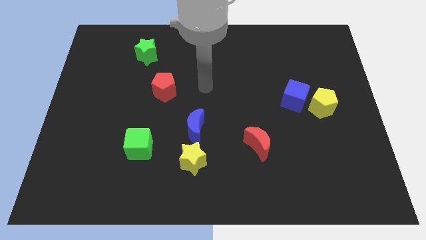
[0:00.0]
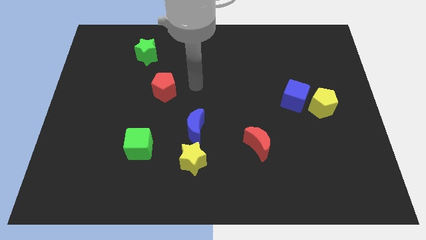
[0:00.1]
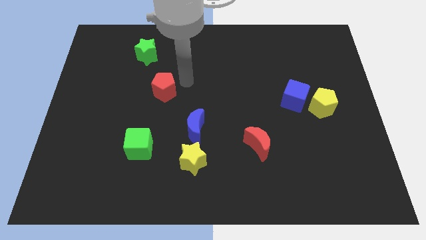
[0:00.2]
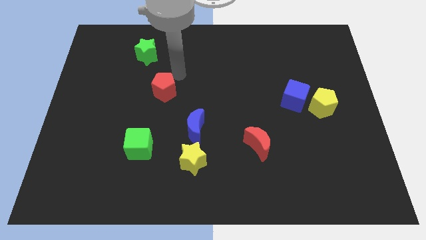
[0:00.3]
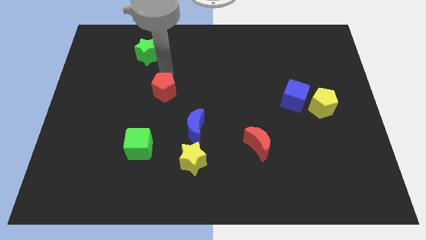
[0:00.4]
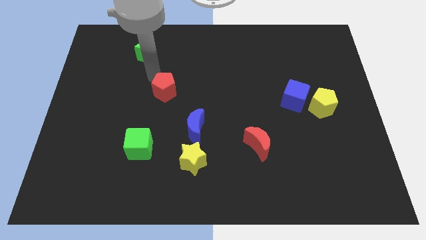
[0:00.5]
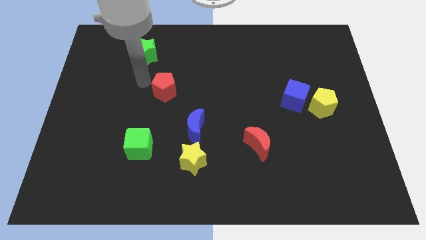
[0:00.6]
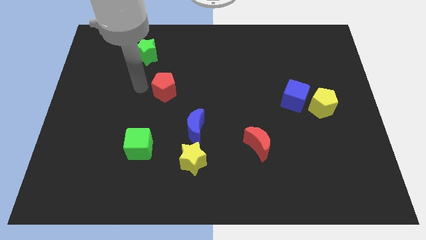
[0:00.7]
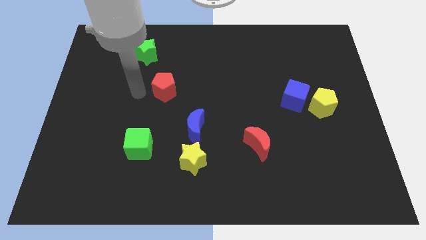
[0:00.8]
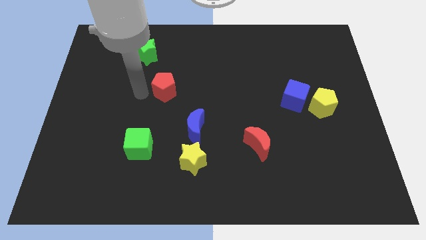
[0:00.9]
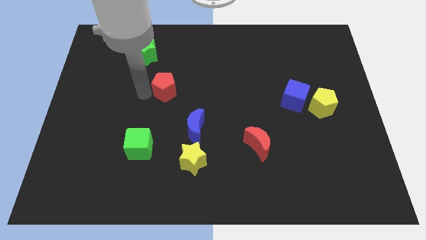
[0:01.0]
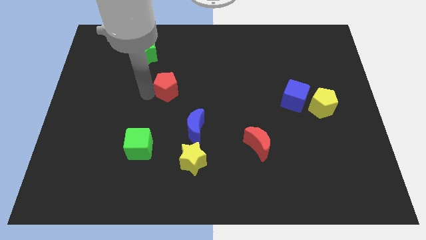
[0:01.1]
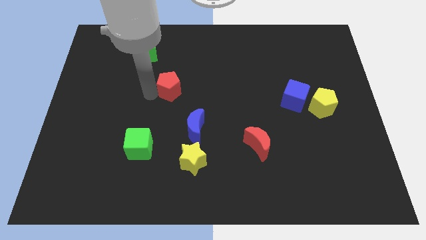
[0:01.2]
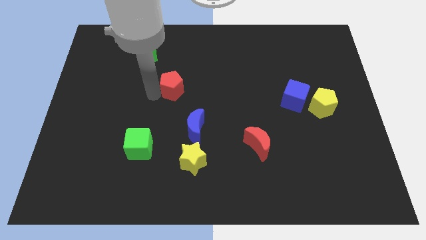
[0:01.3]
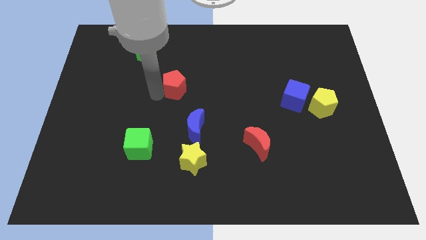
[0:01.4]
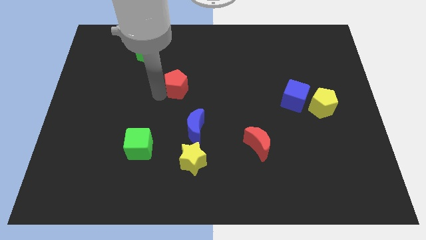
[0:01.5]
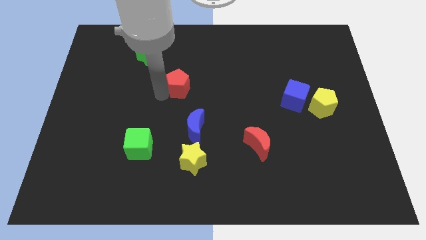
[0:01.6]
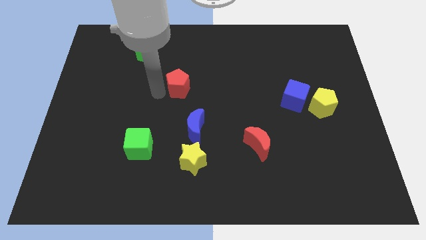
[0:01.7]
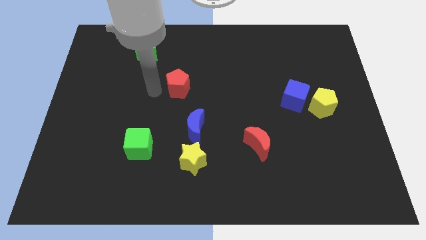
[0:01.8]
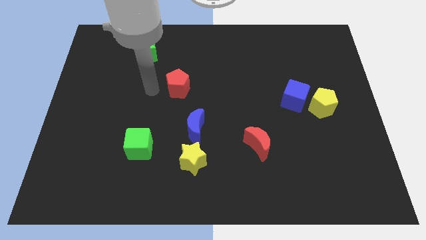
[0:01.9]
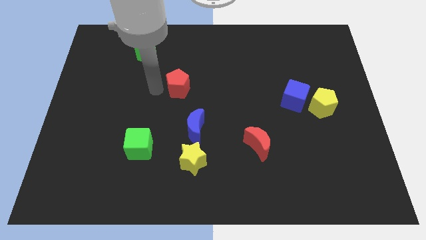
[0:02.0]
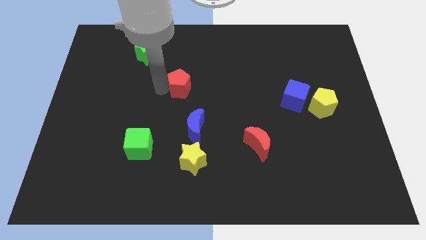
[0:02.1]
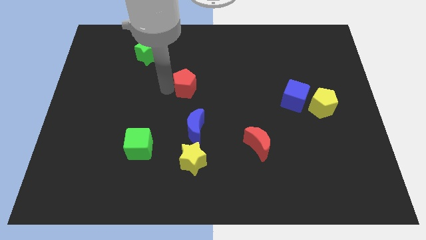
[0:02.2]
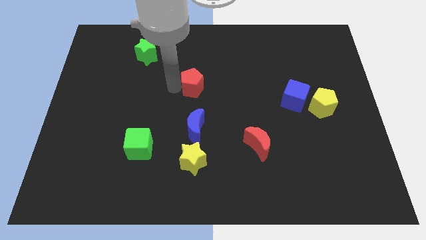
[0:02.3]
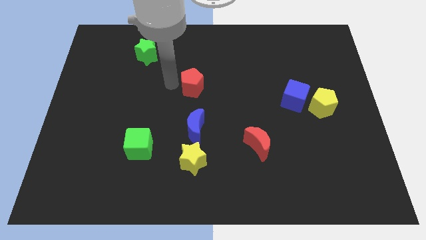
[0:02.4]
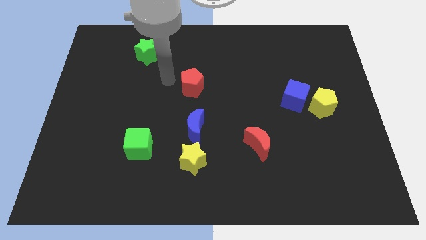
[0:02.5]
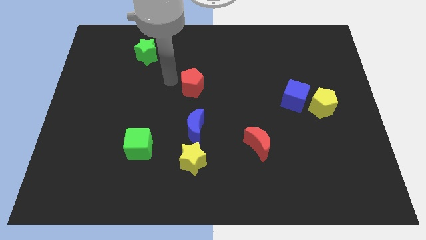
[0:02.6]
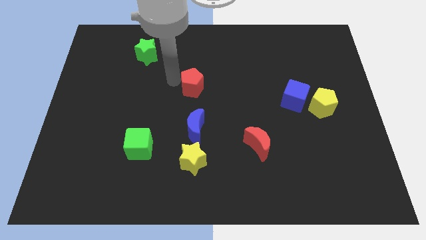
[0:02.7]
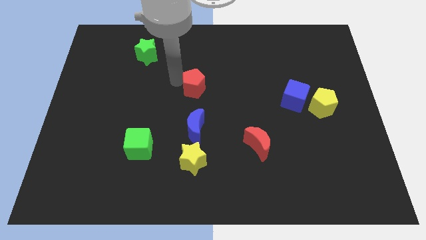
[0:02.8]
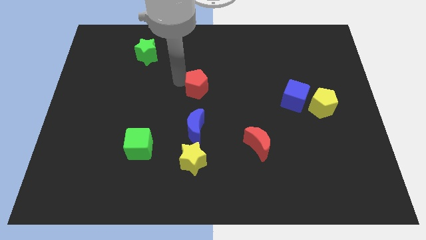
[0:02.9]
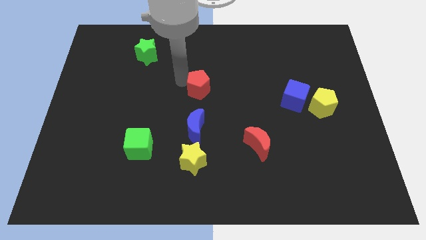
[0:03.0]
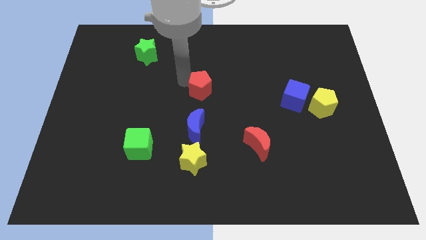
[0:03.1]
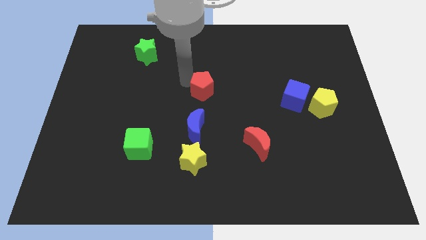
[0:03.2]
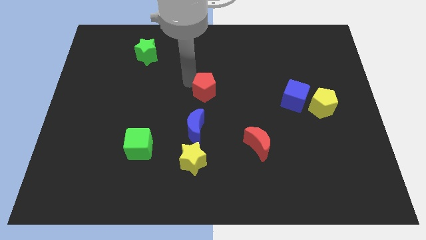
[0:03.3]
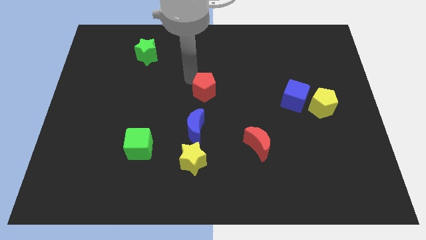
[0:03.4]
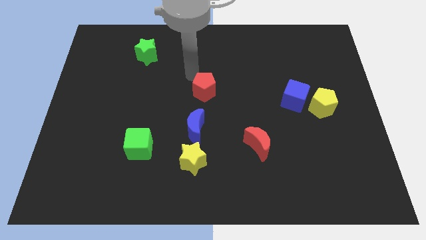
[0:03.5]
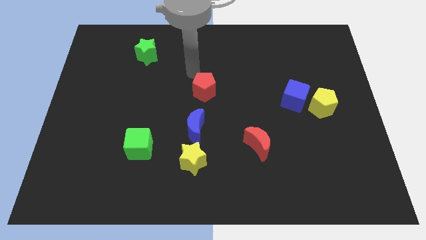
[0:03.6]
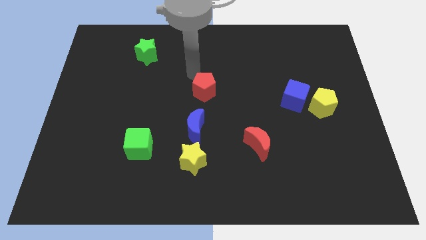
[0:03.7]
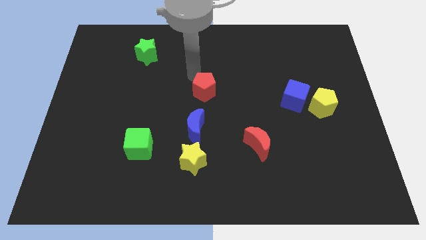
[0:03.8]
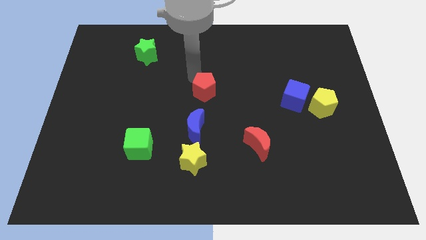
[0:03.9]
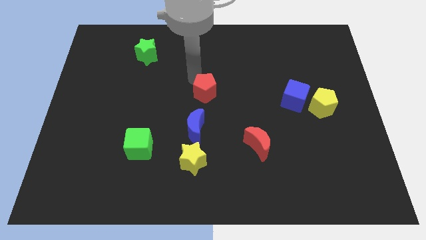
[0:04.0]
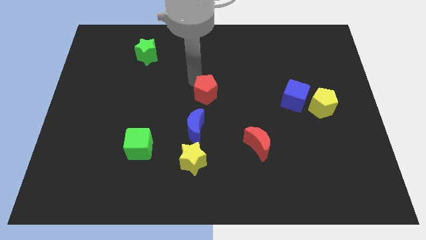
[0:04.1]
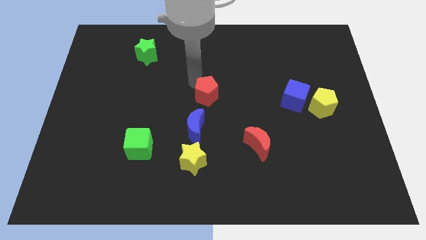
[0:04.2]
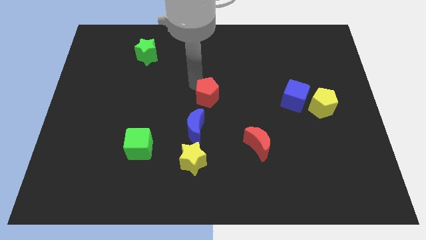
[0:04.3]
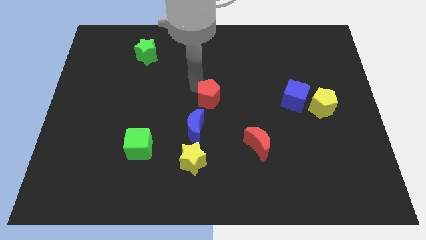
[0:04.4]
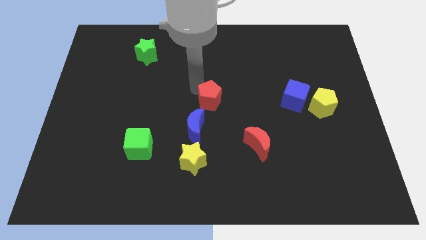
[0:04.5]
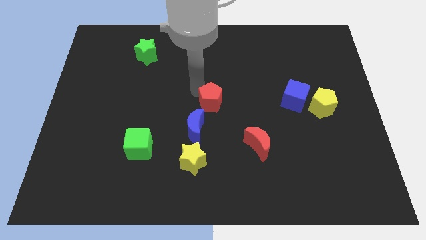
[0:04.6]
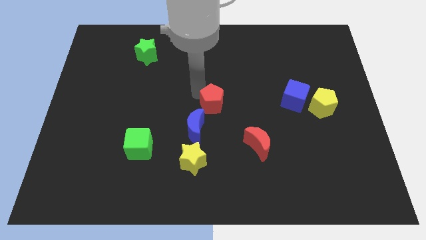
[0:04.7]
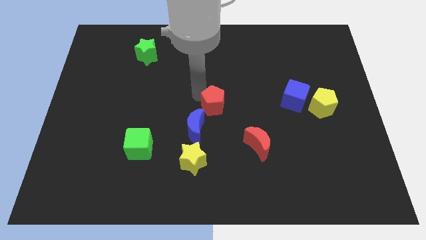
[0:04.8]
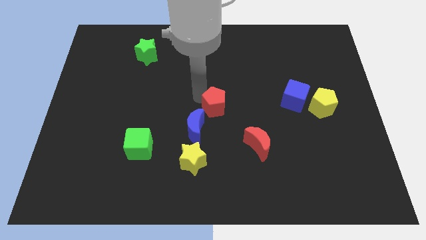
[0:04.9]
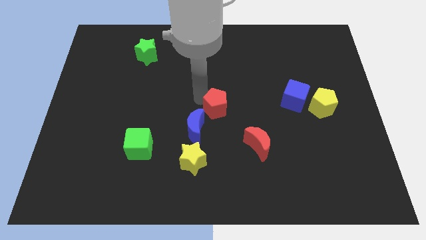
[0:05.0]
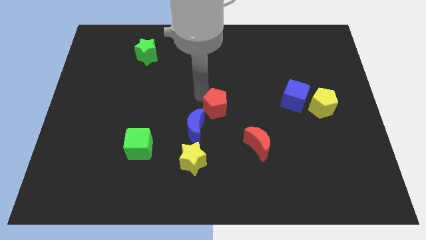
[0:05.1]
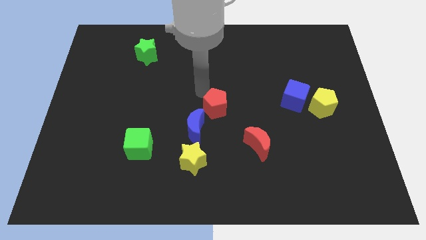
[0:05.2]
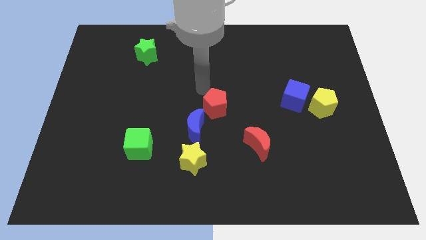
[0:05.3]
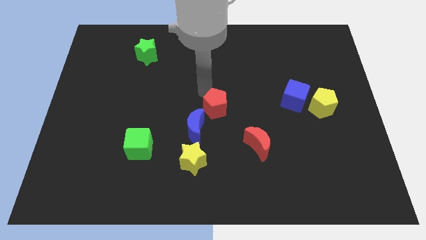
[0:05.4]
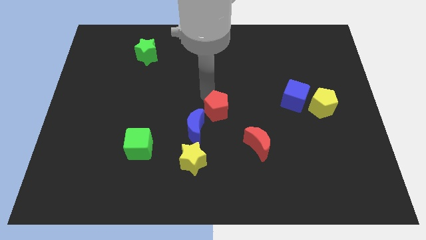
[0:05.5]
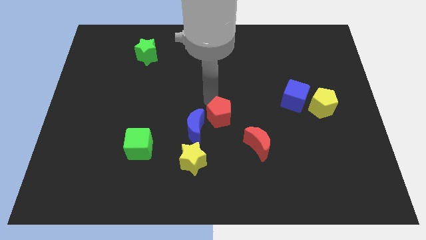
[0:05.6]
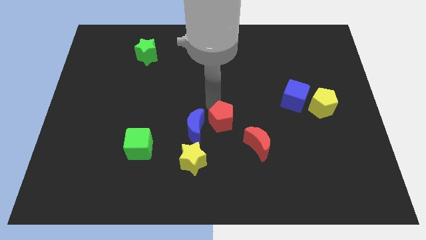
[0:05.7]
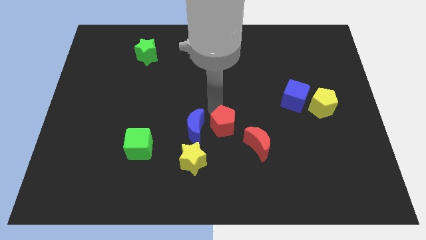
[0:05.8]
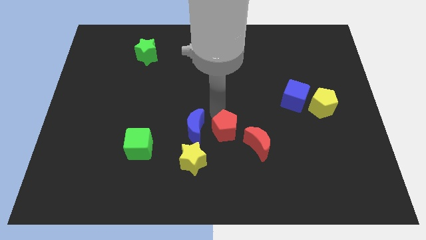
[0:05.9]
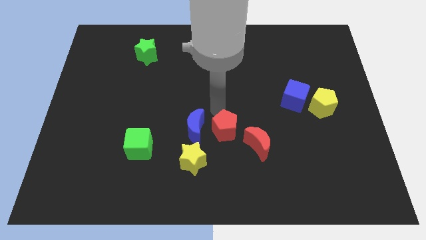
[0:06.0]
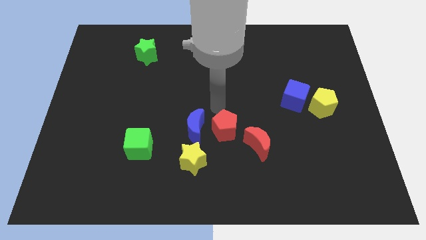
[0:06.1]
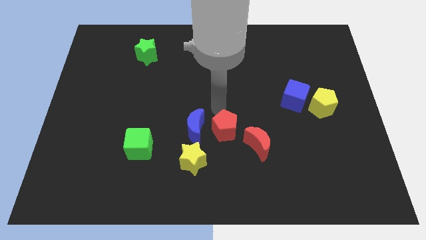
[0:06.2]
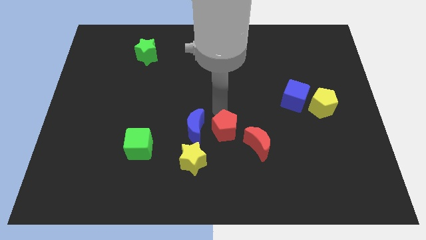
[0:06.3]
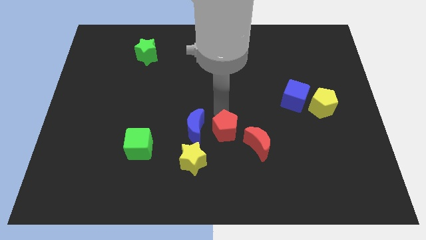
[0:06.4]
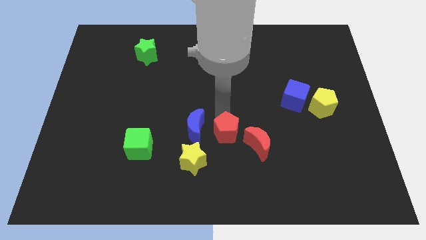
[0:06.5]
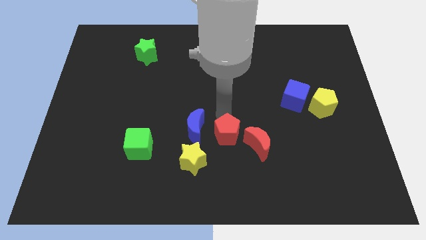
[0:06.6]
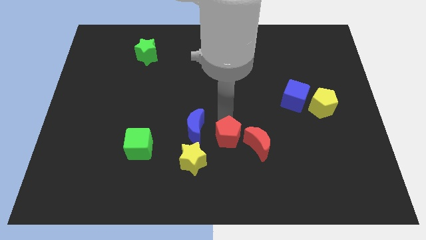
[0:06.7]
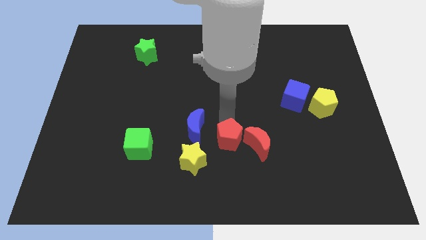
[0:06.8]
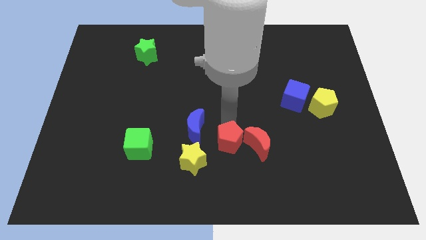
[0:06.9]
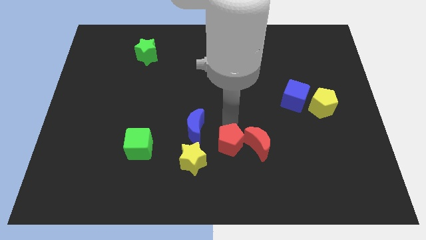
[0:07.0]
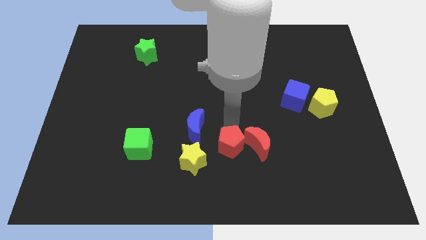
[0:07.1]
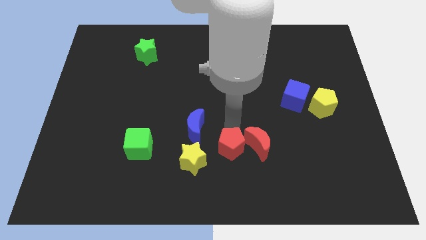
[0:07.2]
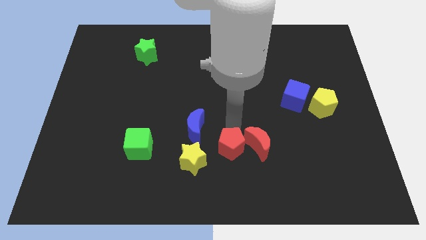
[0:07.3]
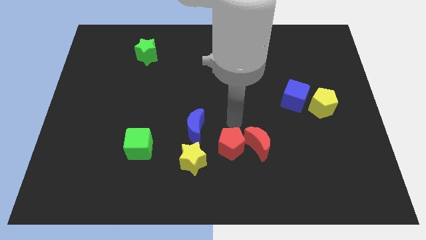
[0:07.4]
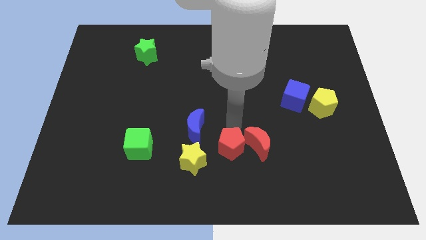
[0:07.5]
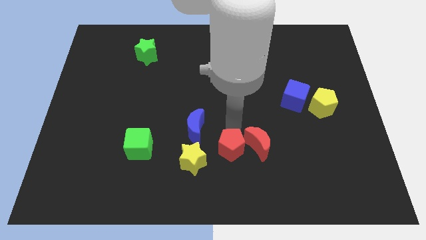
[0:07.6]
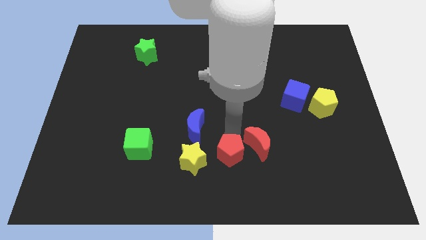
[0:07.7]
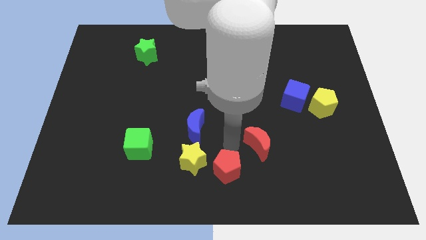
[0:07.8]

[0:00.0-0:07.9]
push the red pentagon to the bottom side
